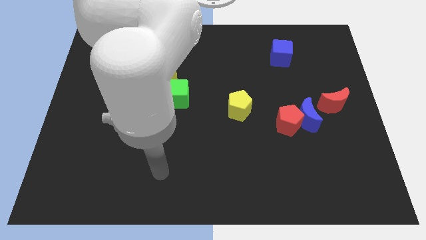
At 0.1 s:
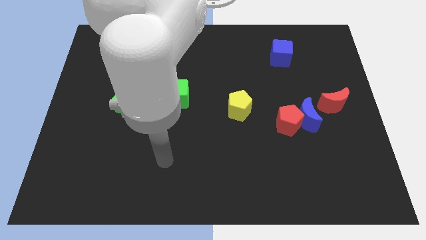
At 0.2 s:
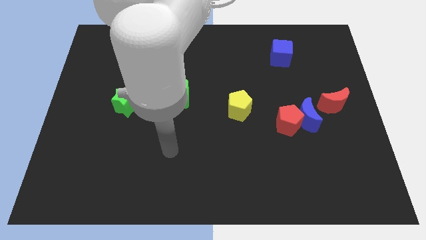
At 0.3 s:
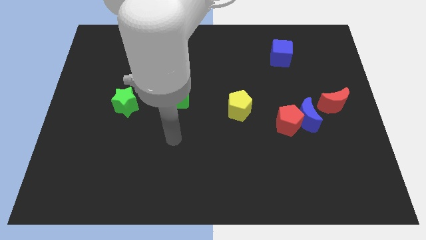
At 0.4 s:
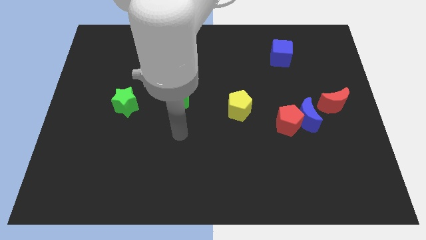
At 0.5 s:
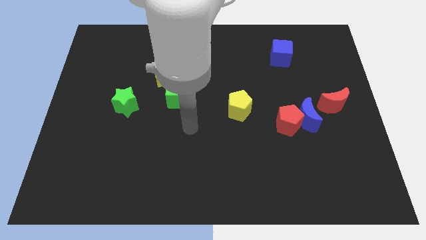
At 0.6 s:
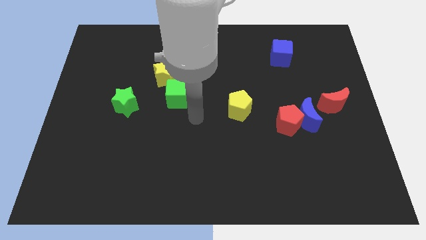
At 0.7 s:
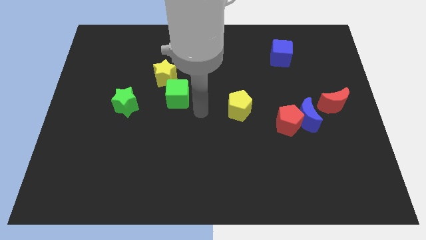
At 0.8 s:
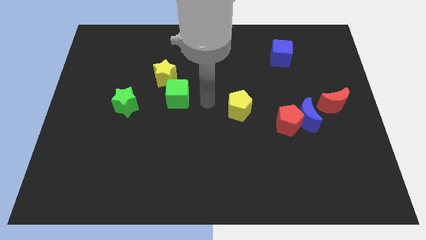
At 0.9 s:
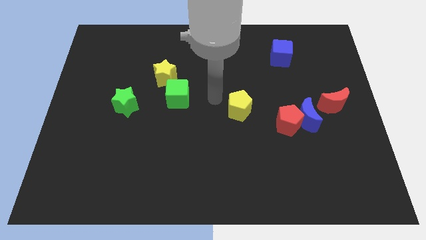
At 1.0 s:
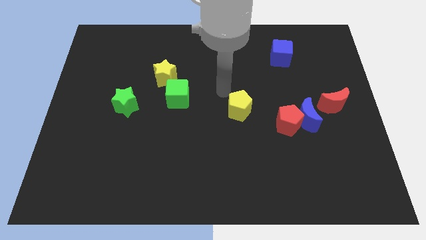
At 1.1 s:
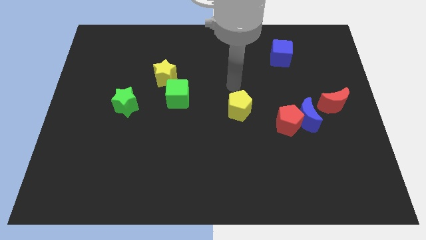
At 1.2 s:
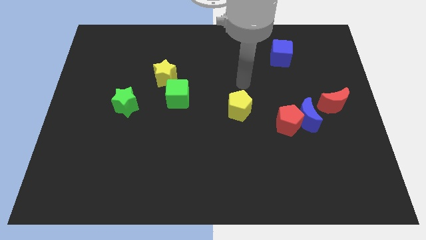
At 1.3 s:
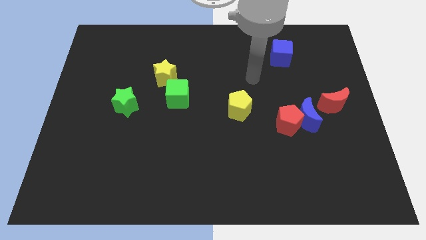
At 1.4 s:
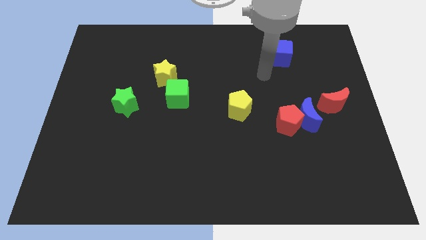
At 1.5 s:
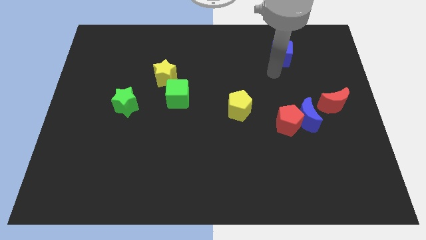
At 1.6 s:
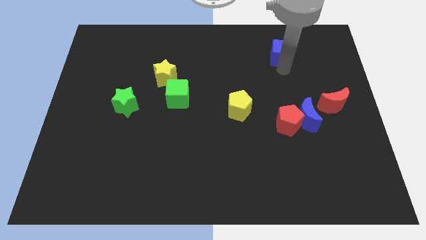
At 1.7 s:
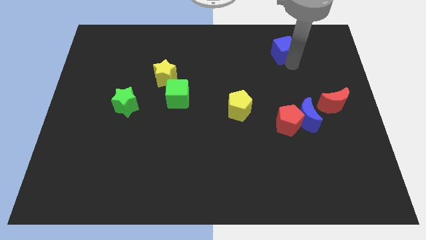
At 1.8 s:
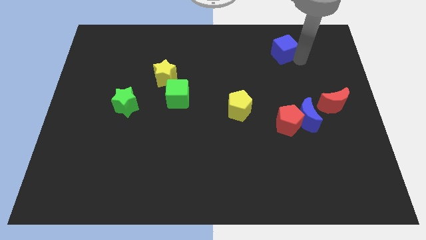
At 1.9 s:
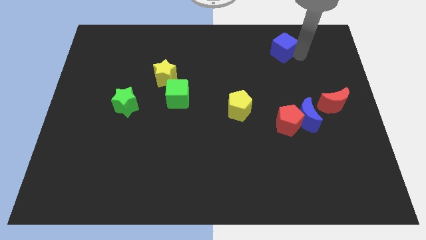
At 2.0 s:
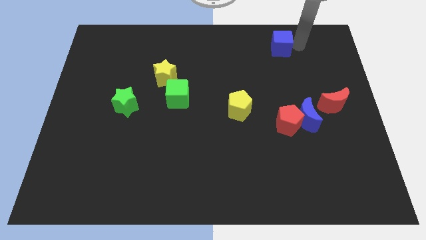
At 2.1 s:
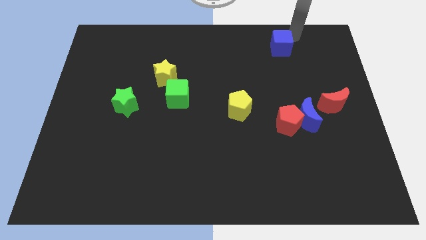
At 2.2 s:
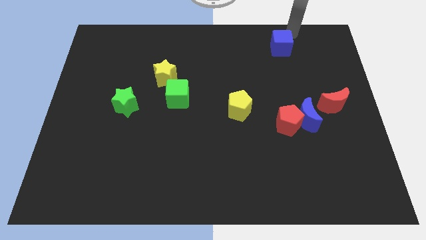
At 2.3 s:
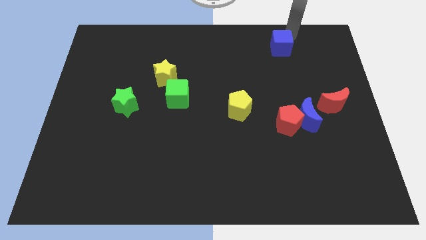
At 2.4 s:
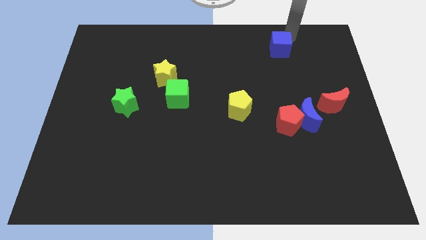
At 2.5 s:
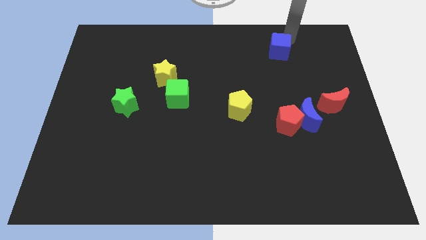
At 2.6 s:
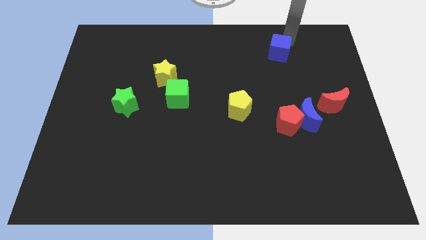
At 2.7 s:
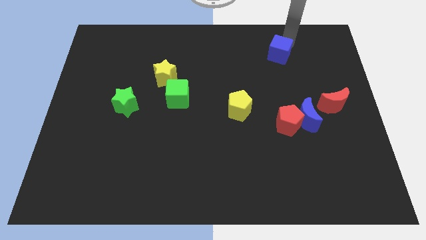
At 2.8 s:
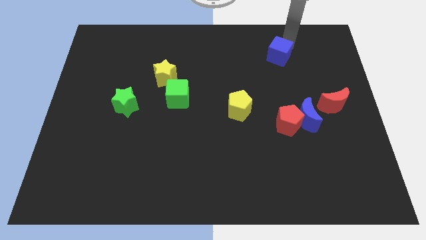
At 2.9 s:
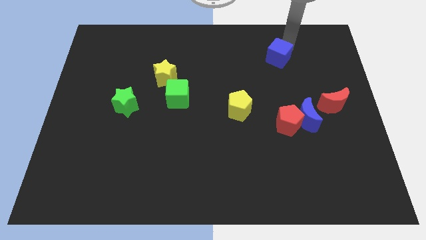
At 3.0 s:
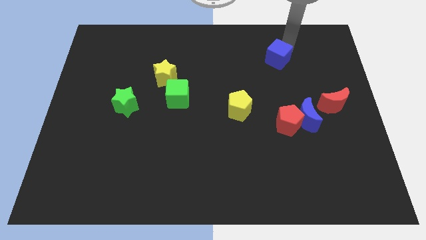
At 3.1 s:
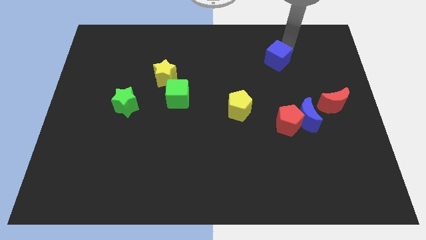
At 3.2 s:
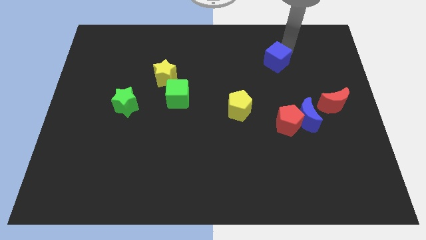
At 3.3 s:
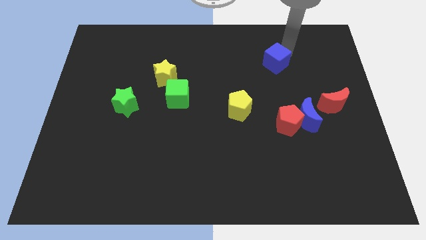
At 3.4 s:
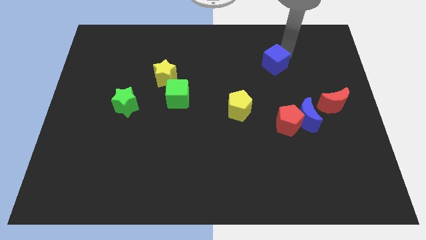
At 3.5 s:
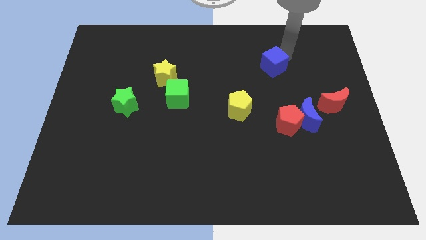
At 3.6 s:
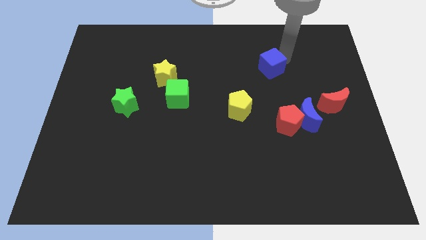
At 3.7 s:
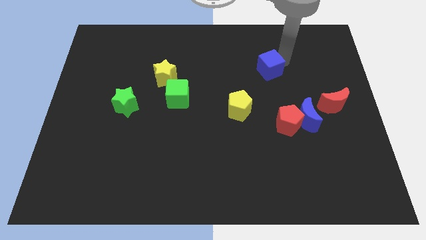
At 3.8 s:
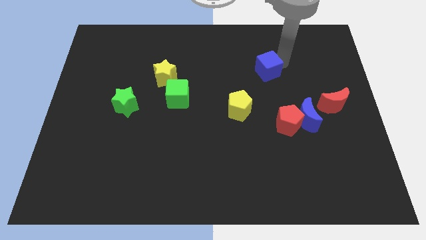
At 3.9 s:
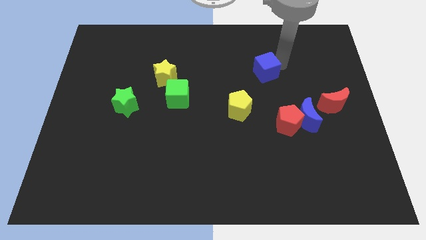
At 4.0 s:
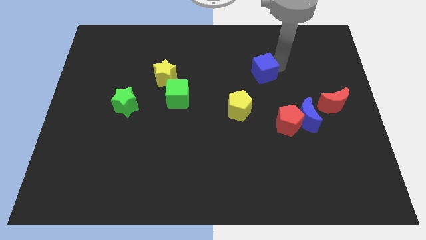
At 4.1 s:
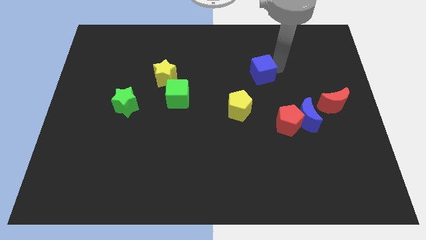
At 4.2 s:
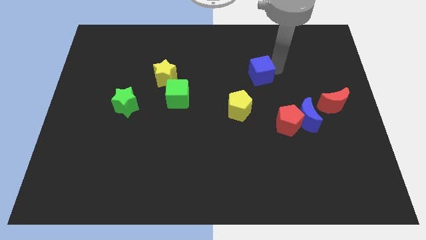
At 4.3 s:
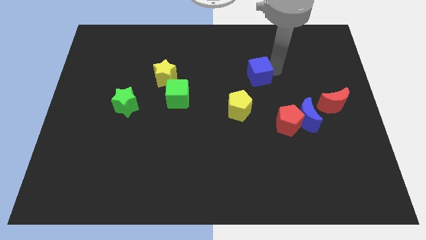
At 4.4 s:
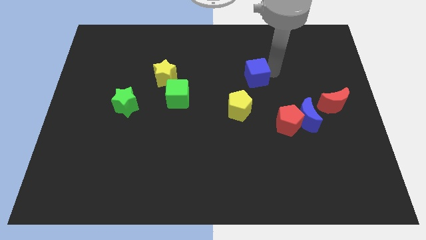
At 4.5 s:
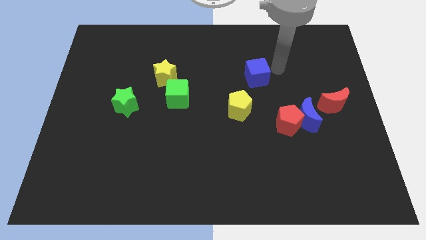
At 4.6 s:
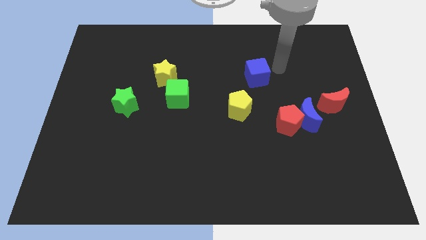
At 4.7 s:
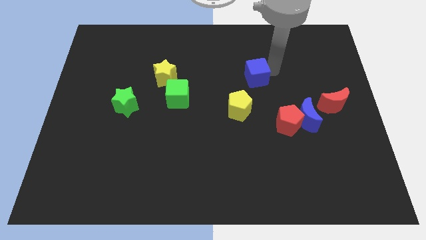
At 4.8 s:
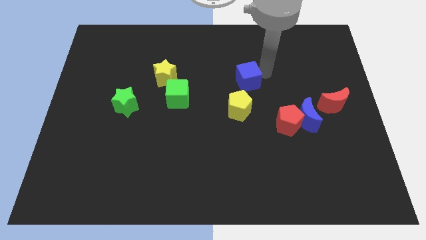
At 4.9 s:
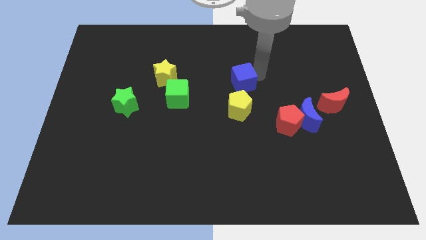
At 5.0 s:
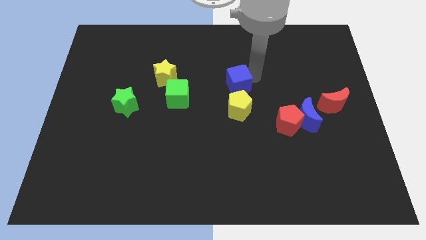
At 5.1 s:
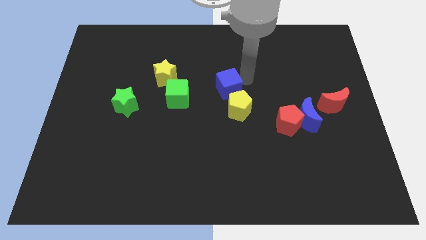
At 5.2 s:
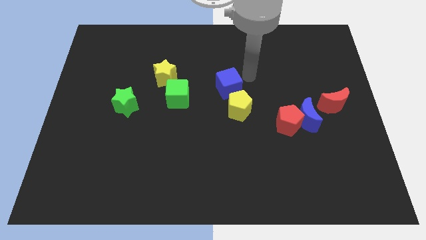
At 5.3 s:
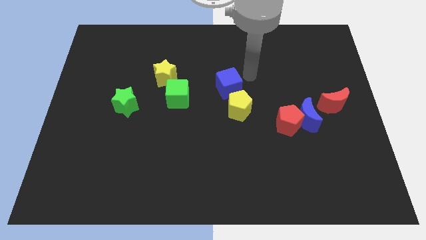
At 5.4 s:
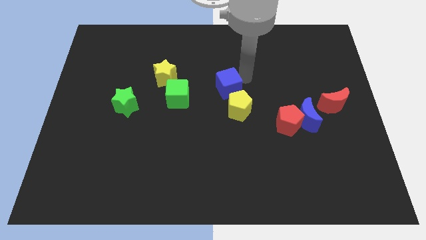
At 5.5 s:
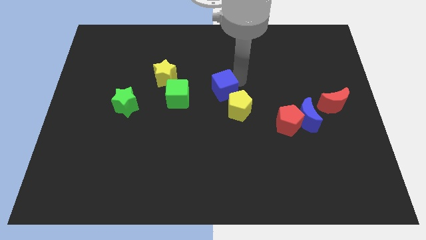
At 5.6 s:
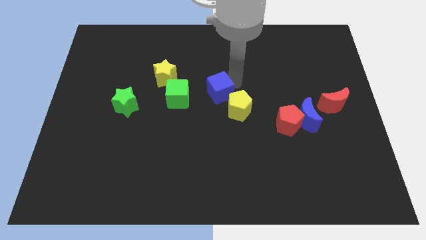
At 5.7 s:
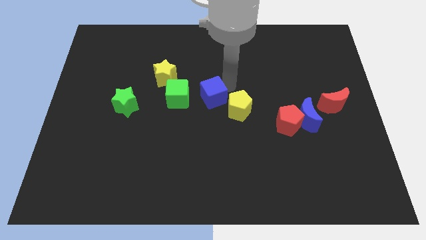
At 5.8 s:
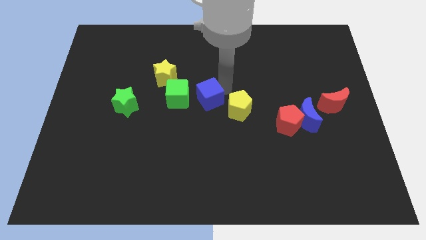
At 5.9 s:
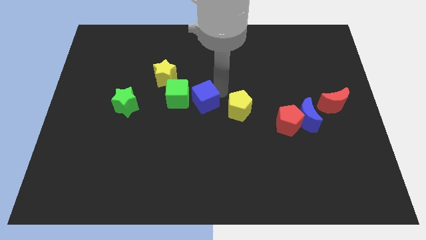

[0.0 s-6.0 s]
move the blue cube to the bottom right side of the yellow star

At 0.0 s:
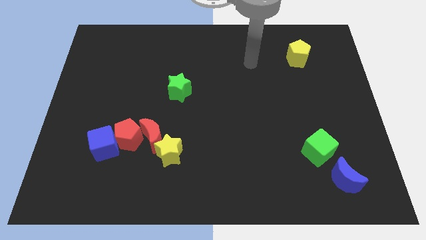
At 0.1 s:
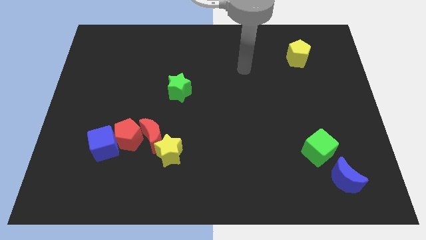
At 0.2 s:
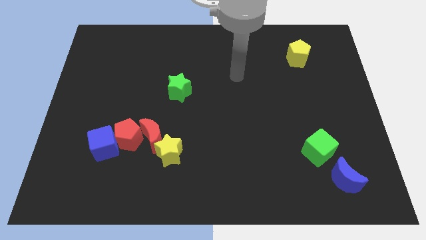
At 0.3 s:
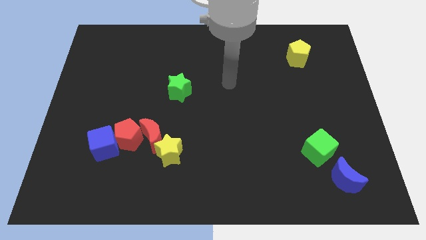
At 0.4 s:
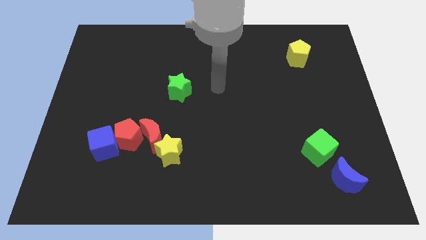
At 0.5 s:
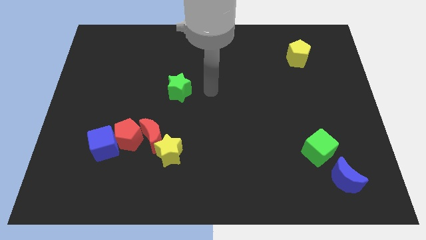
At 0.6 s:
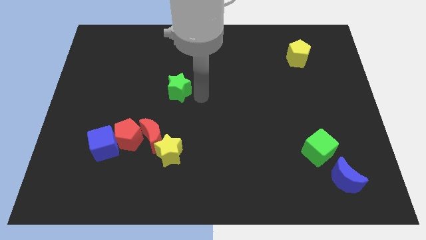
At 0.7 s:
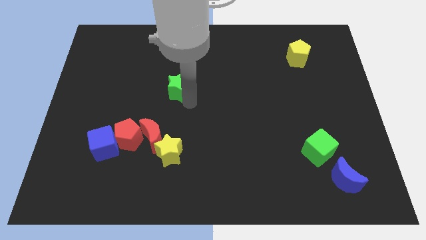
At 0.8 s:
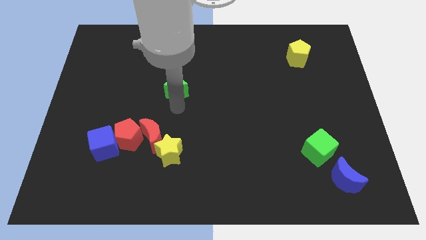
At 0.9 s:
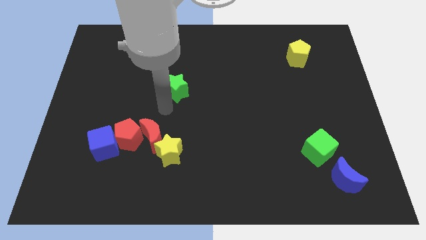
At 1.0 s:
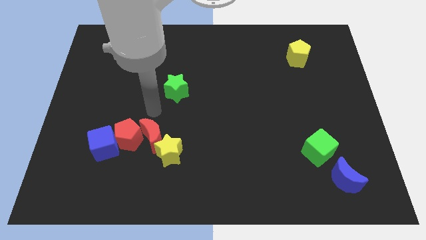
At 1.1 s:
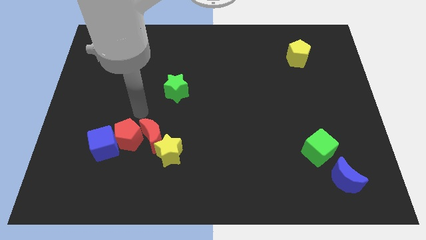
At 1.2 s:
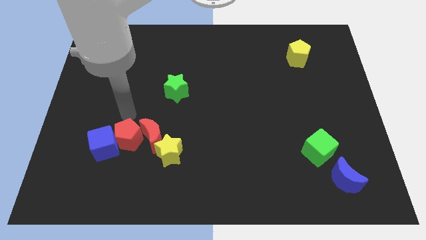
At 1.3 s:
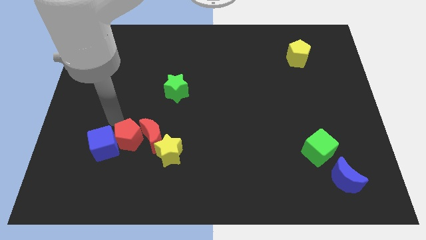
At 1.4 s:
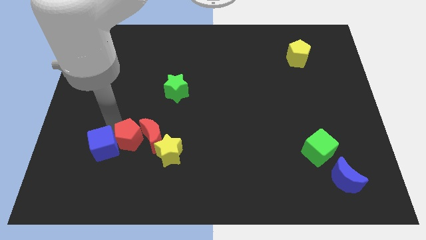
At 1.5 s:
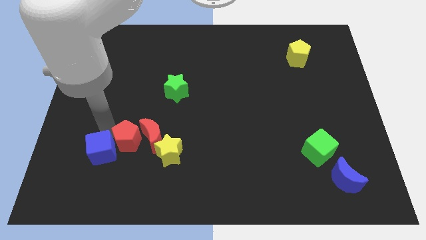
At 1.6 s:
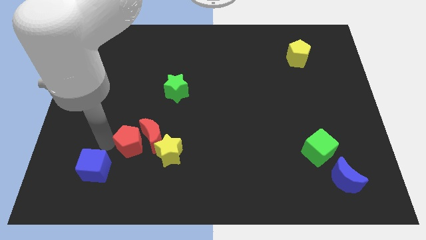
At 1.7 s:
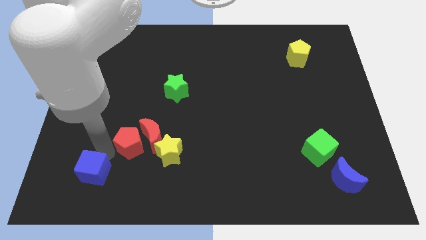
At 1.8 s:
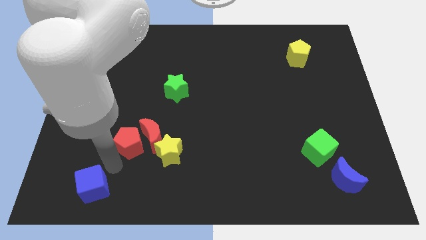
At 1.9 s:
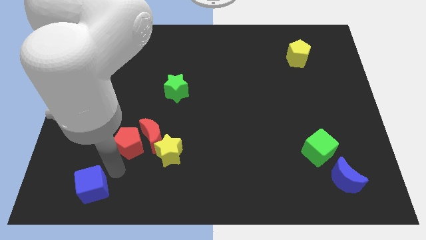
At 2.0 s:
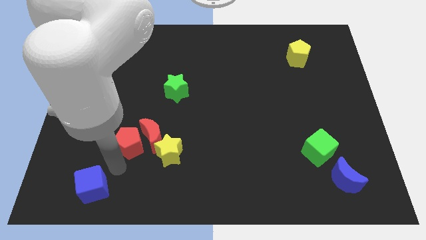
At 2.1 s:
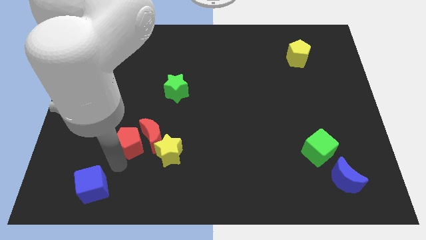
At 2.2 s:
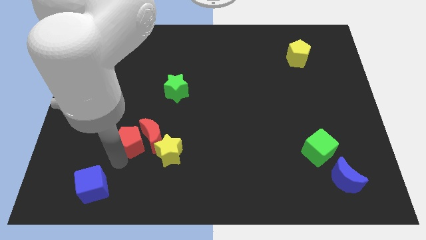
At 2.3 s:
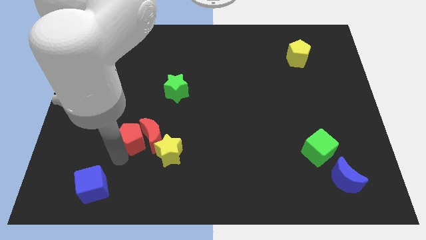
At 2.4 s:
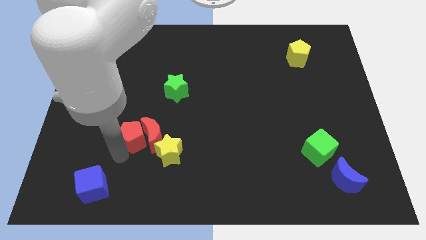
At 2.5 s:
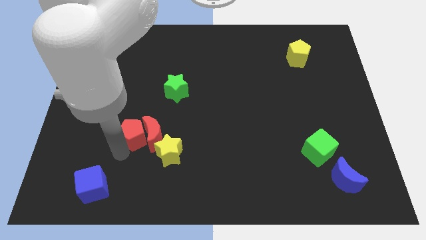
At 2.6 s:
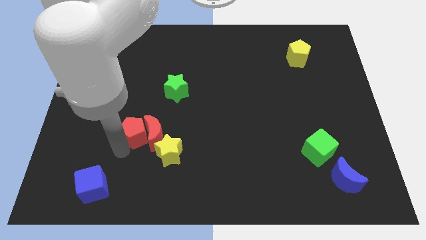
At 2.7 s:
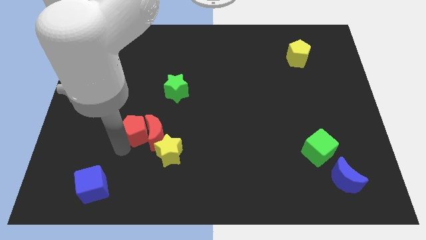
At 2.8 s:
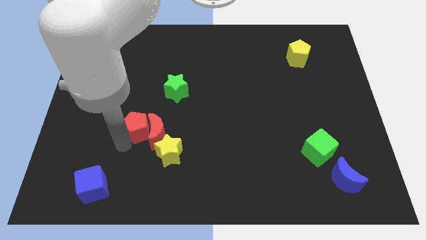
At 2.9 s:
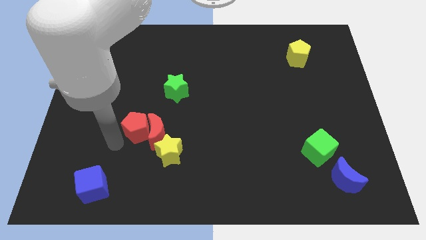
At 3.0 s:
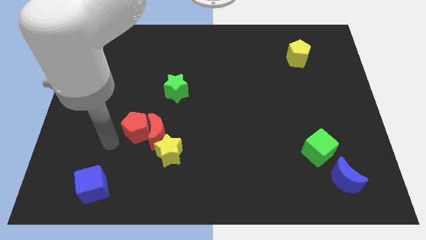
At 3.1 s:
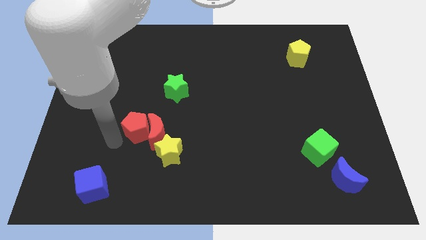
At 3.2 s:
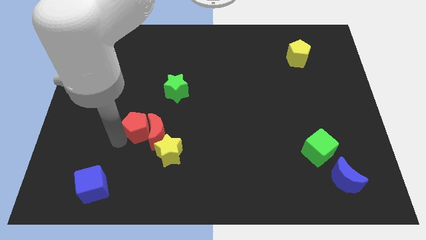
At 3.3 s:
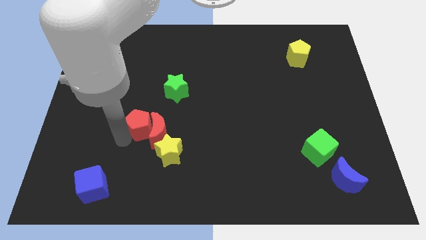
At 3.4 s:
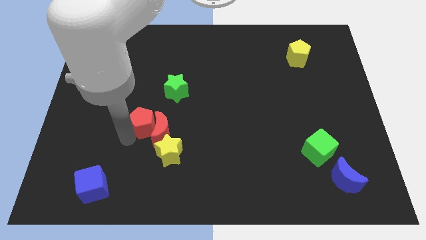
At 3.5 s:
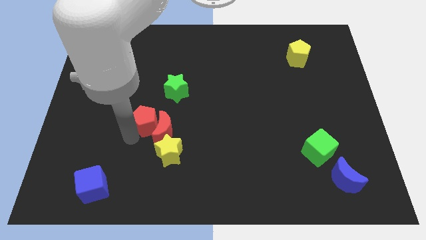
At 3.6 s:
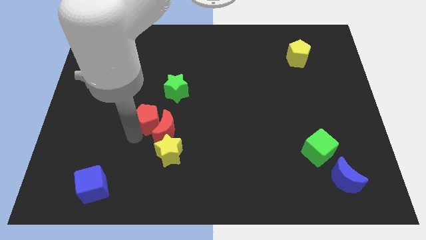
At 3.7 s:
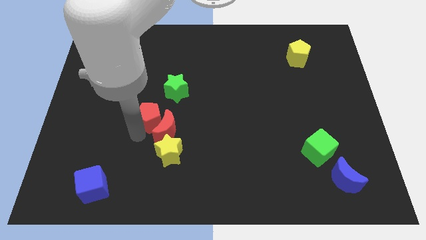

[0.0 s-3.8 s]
put the red pentagon to the top of the yellow star
